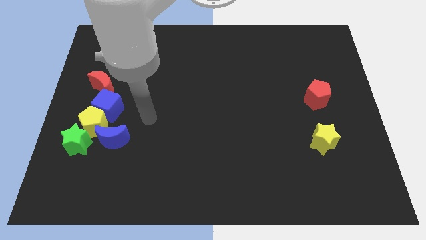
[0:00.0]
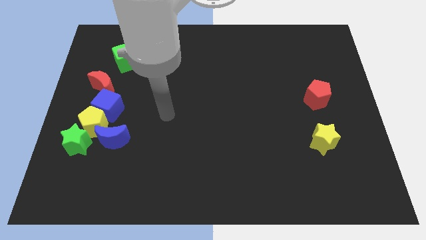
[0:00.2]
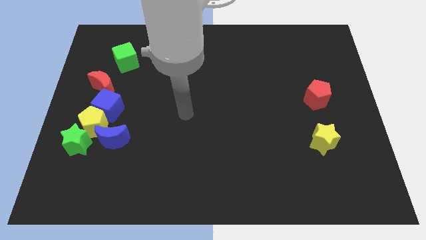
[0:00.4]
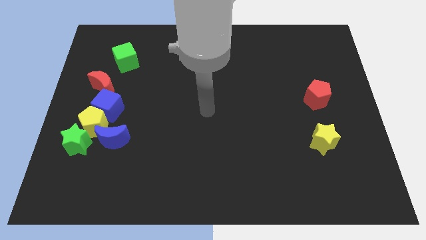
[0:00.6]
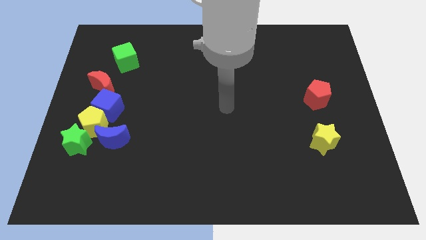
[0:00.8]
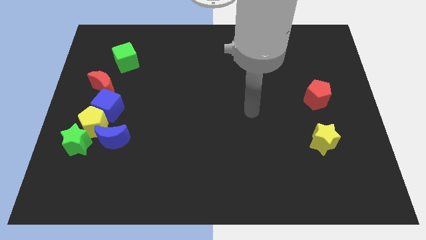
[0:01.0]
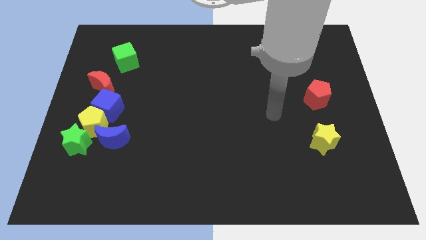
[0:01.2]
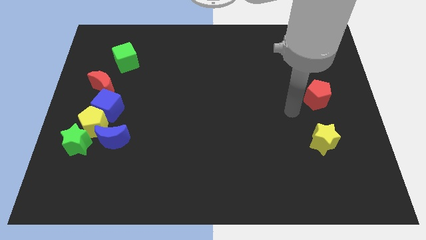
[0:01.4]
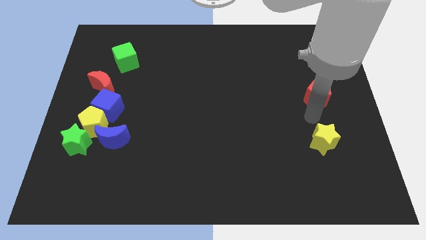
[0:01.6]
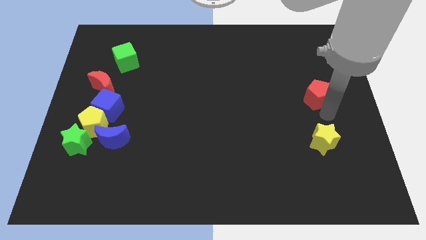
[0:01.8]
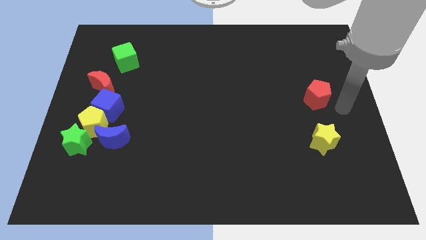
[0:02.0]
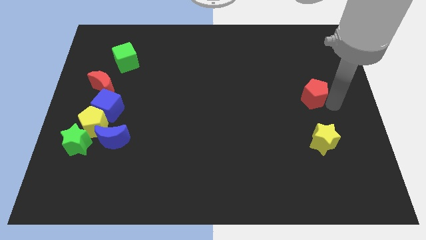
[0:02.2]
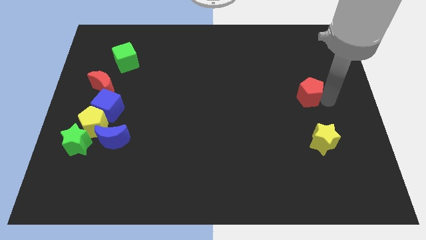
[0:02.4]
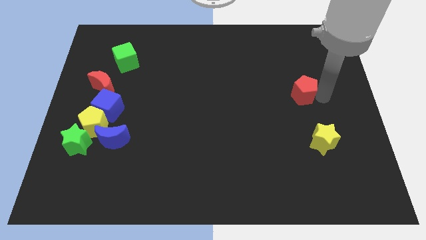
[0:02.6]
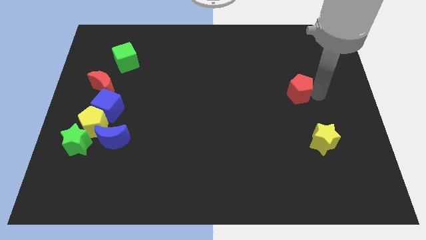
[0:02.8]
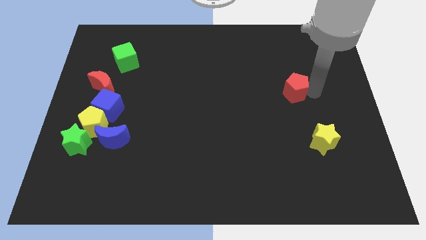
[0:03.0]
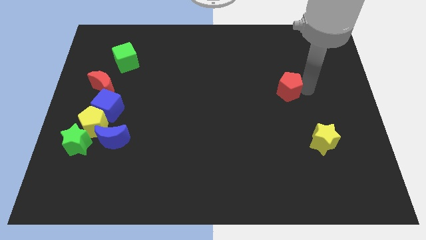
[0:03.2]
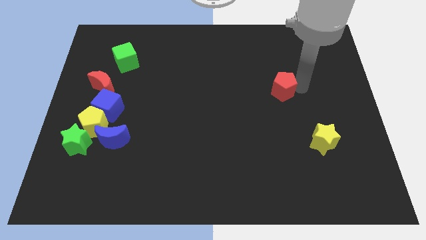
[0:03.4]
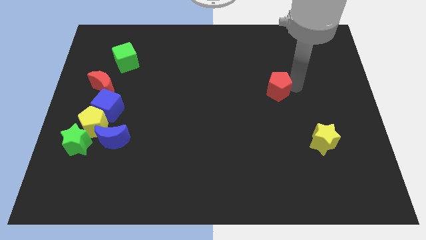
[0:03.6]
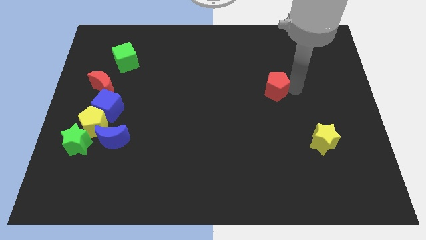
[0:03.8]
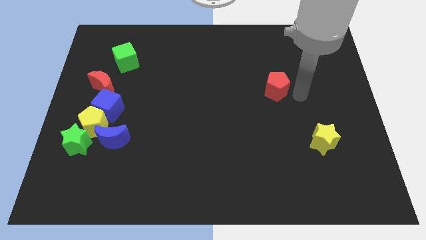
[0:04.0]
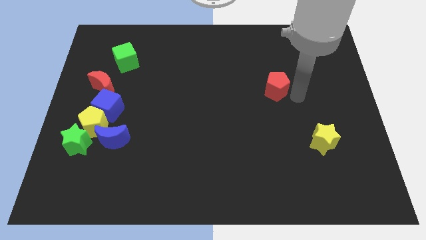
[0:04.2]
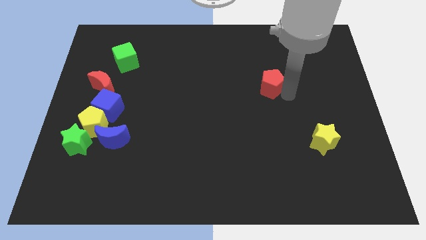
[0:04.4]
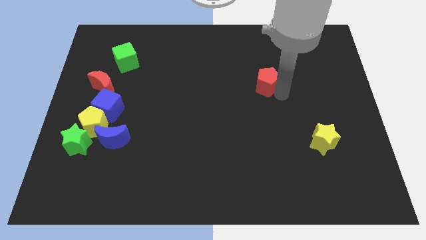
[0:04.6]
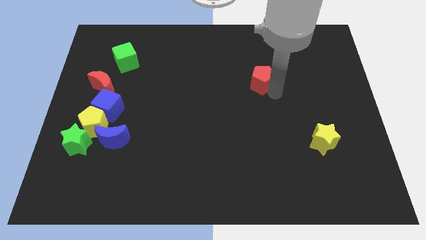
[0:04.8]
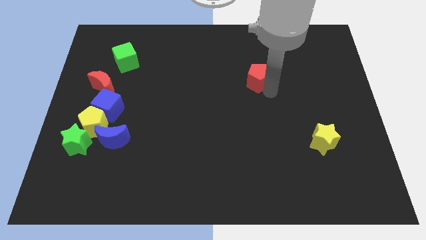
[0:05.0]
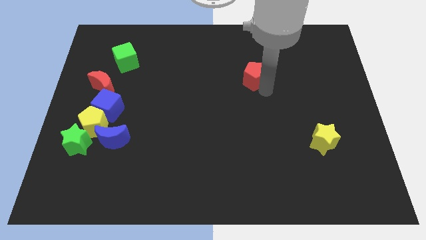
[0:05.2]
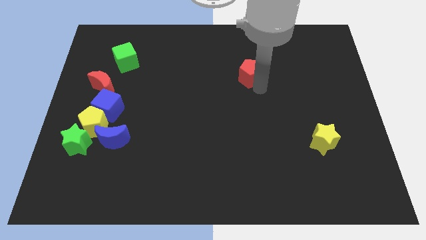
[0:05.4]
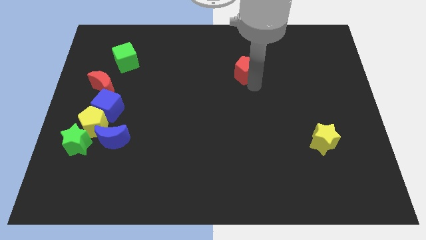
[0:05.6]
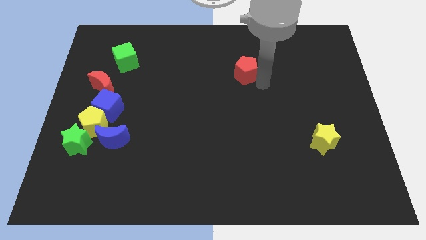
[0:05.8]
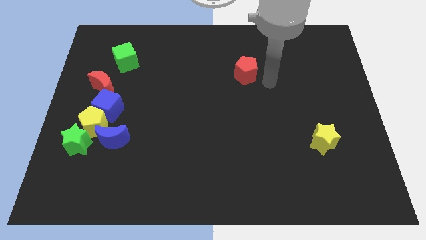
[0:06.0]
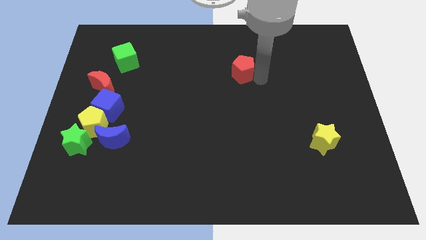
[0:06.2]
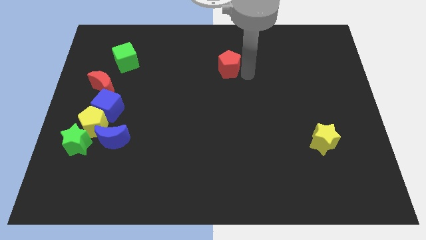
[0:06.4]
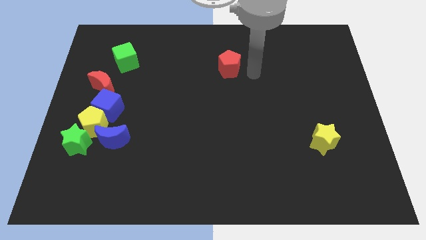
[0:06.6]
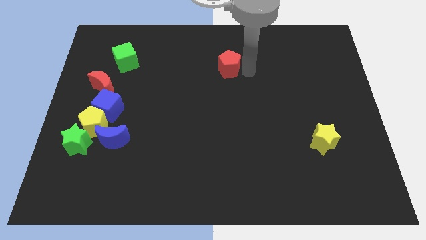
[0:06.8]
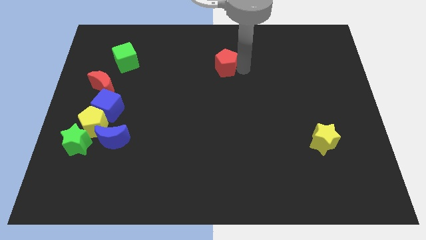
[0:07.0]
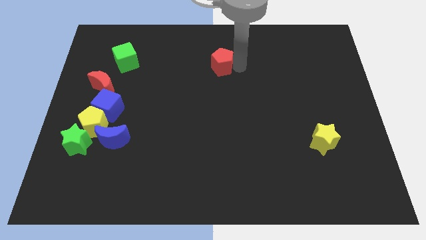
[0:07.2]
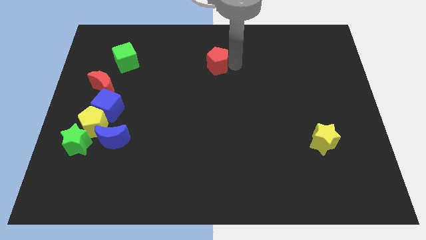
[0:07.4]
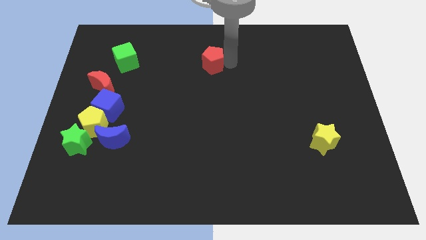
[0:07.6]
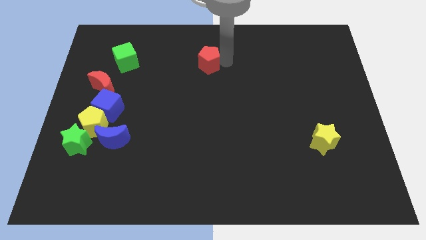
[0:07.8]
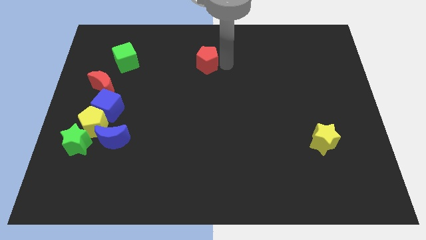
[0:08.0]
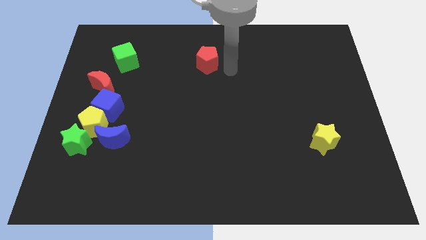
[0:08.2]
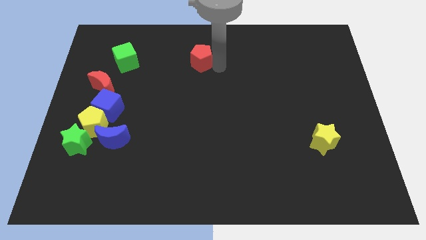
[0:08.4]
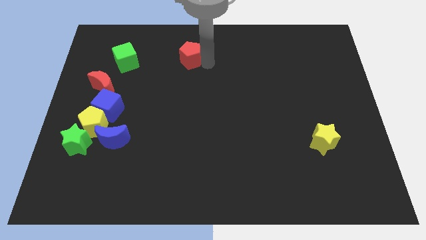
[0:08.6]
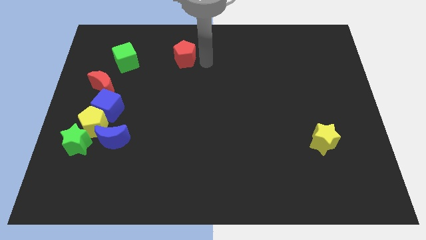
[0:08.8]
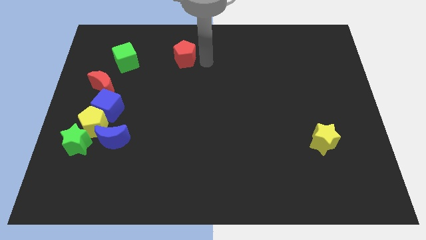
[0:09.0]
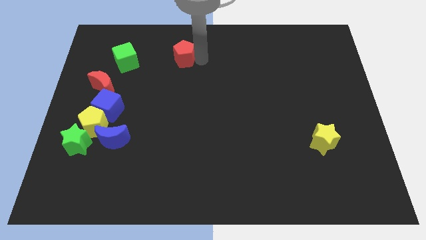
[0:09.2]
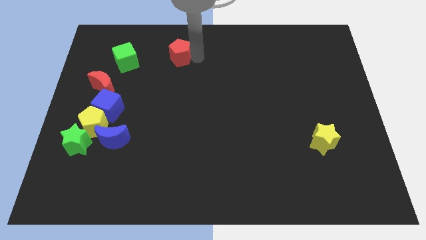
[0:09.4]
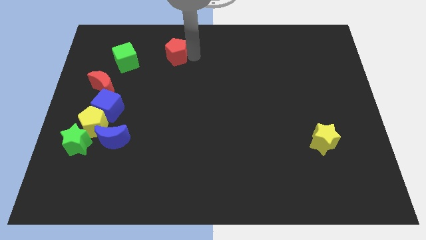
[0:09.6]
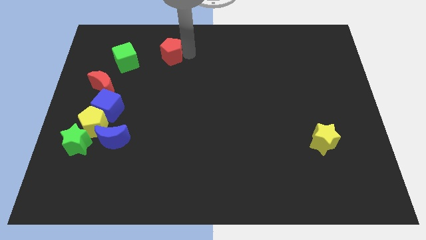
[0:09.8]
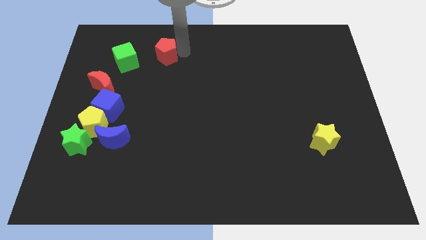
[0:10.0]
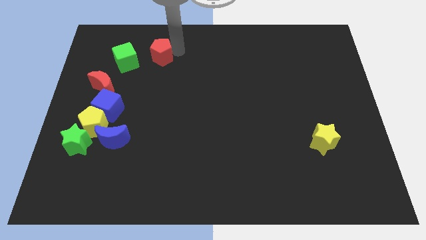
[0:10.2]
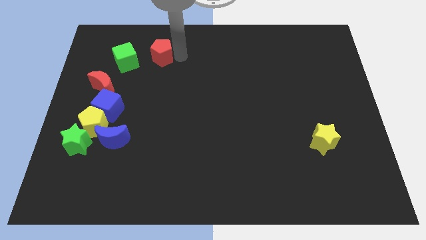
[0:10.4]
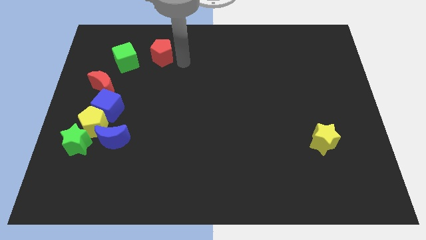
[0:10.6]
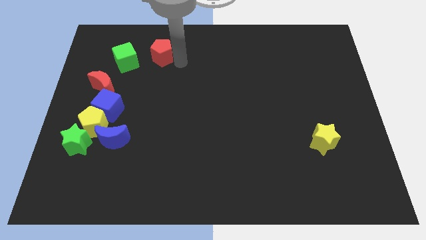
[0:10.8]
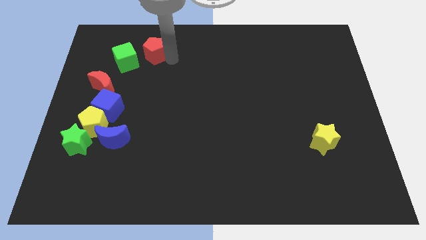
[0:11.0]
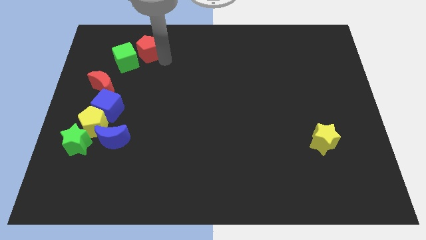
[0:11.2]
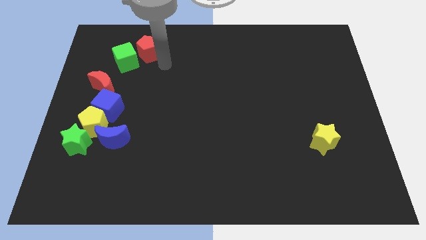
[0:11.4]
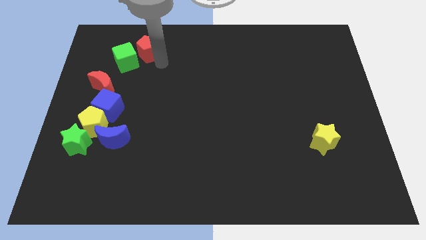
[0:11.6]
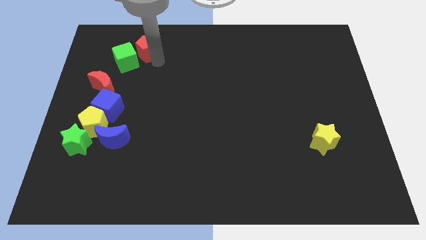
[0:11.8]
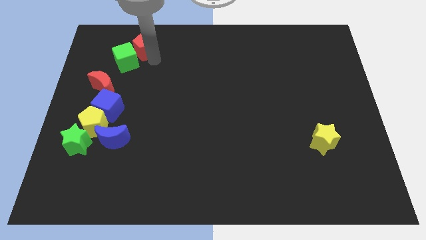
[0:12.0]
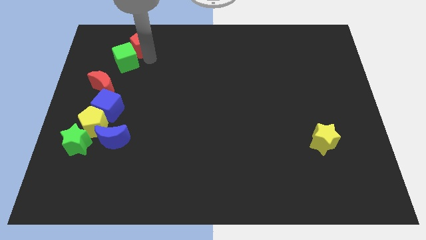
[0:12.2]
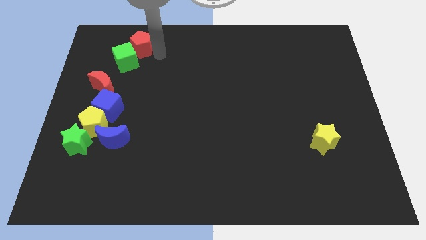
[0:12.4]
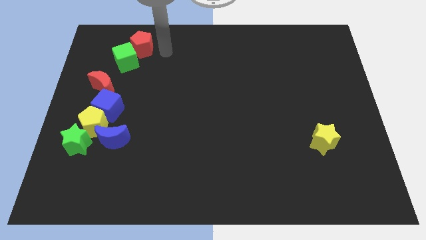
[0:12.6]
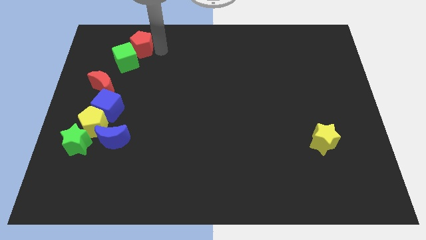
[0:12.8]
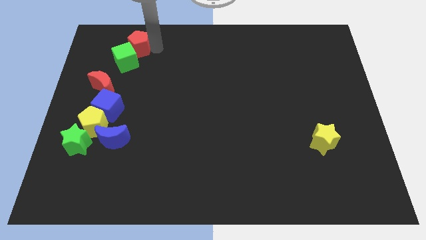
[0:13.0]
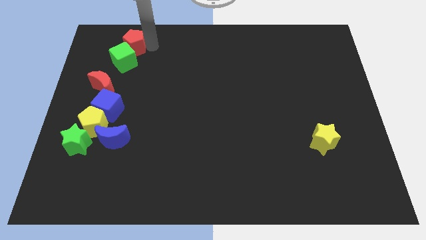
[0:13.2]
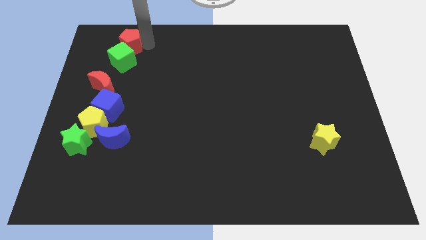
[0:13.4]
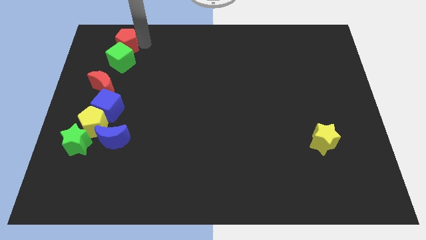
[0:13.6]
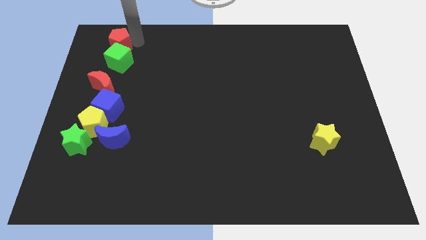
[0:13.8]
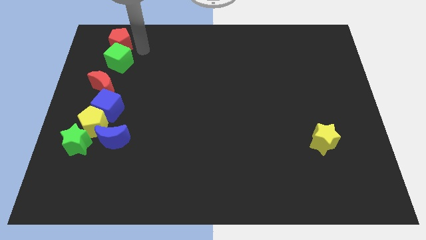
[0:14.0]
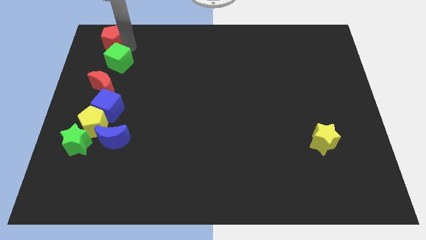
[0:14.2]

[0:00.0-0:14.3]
put the red pentagon to the upper left corner

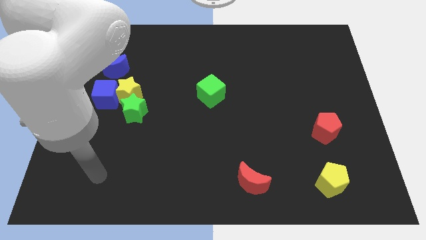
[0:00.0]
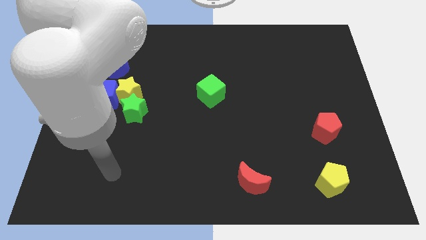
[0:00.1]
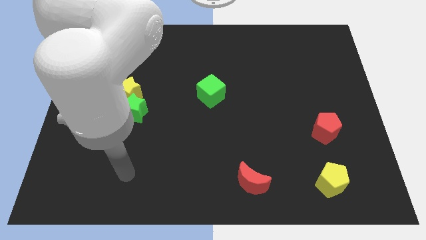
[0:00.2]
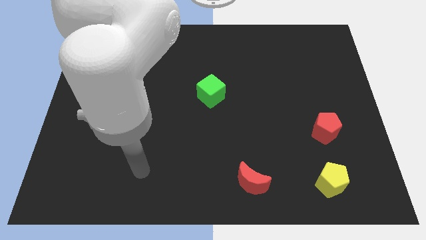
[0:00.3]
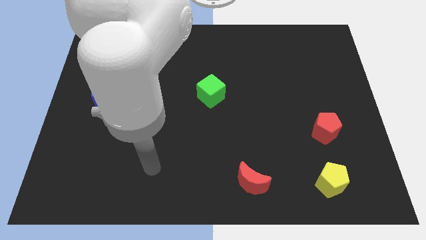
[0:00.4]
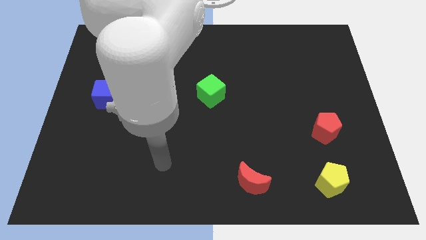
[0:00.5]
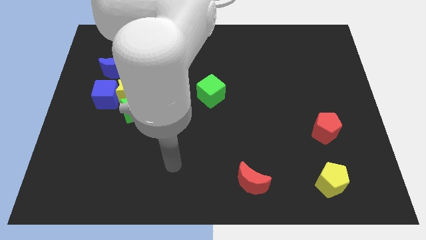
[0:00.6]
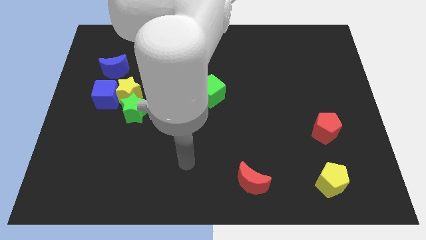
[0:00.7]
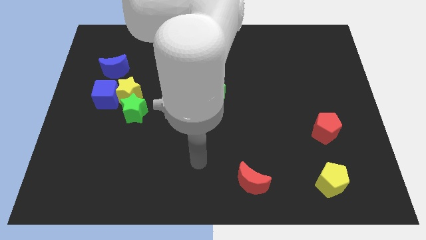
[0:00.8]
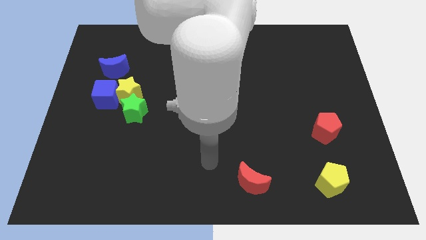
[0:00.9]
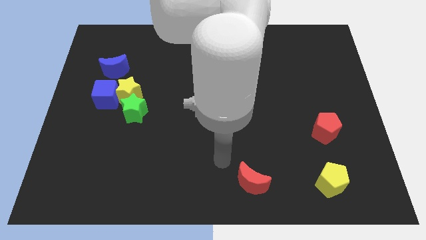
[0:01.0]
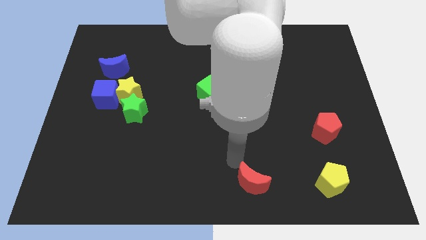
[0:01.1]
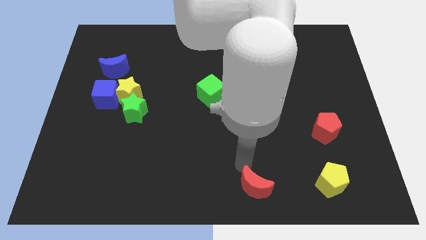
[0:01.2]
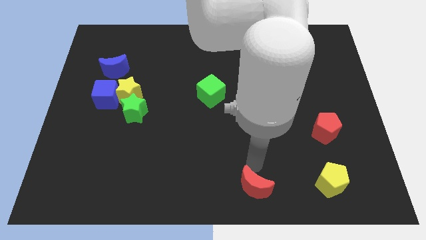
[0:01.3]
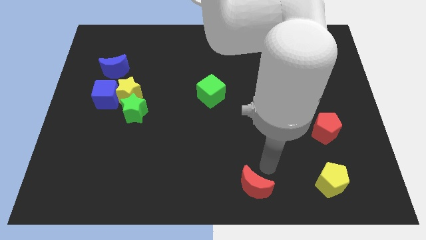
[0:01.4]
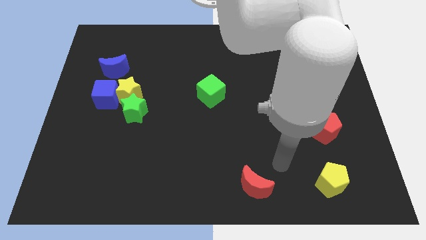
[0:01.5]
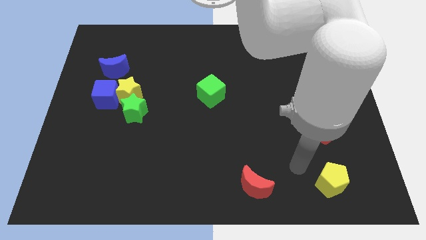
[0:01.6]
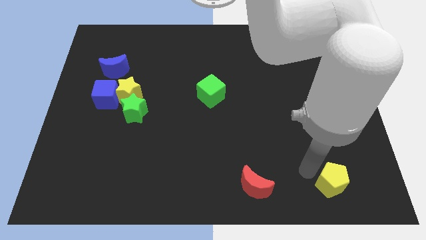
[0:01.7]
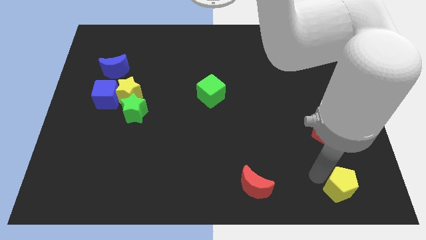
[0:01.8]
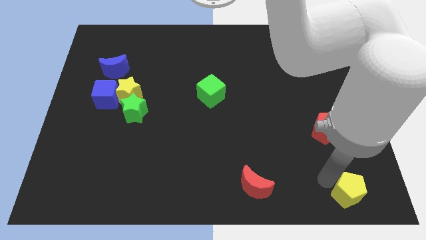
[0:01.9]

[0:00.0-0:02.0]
put the yellow pentagon to the lower right corner
